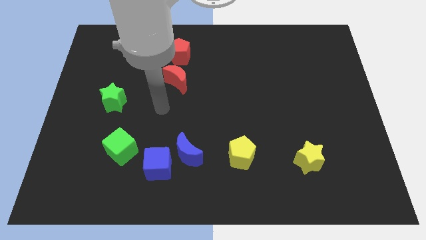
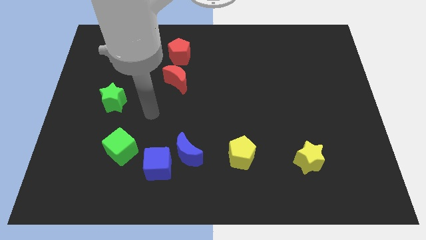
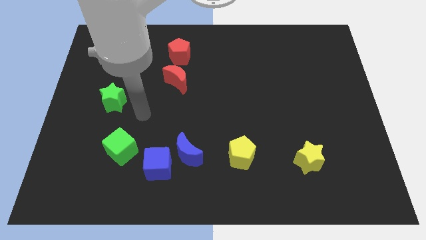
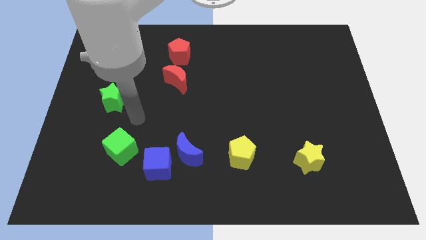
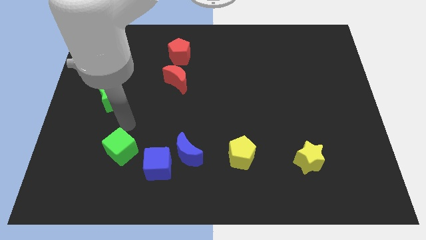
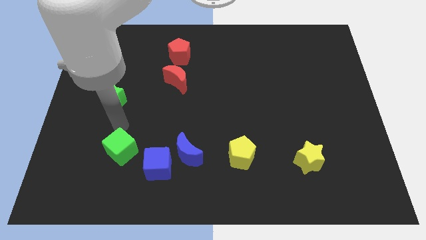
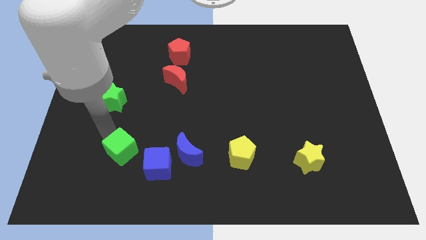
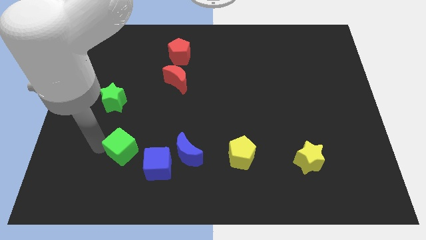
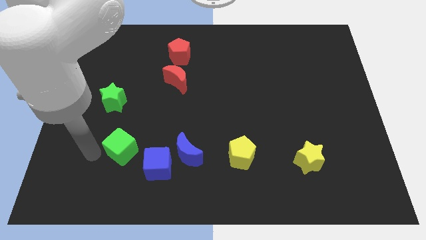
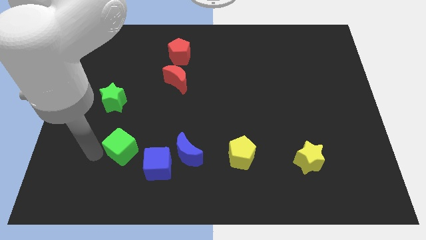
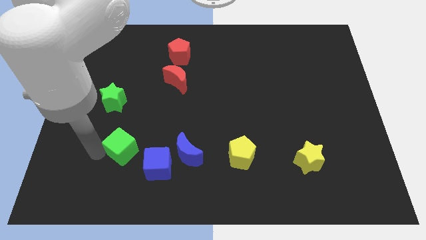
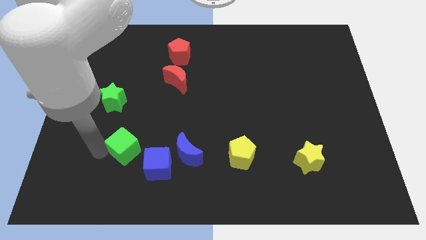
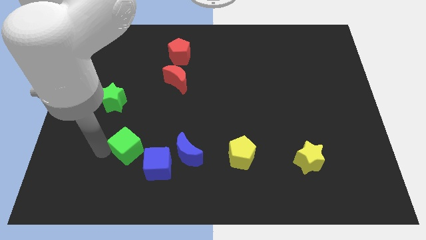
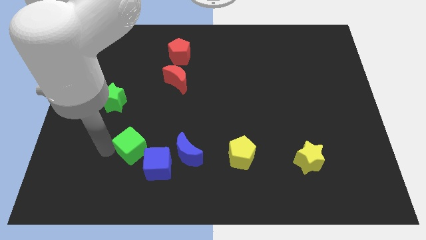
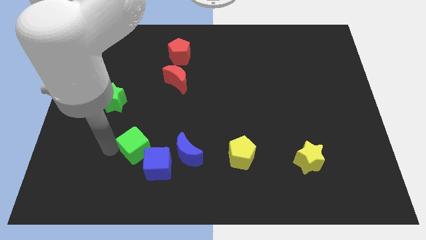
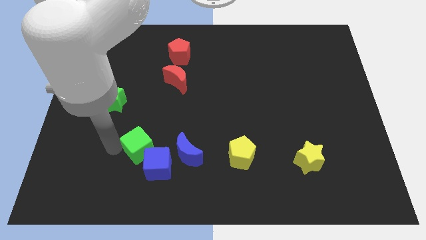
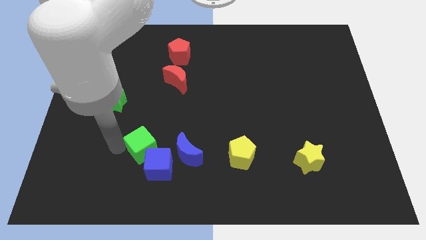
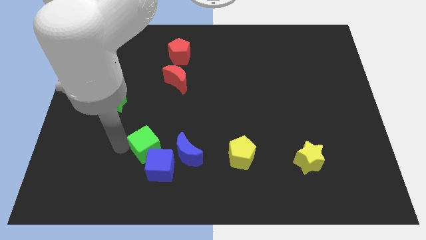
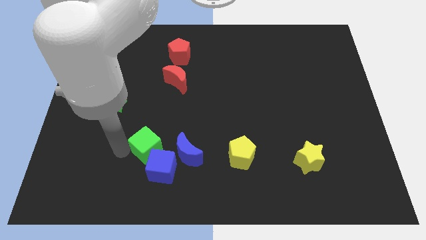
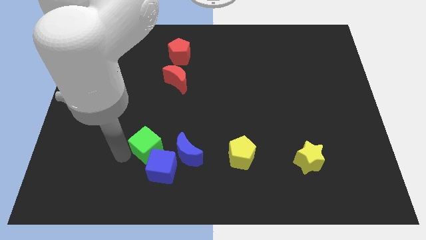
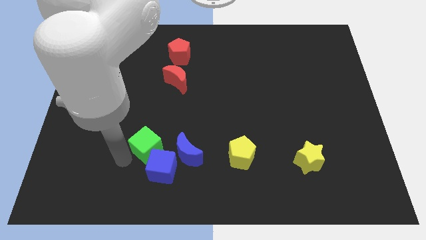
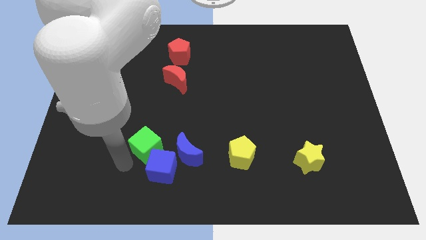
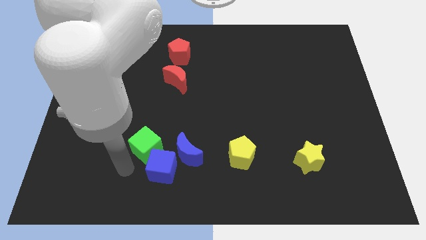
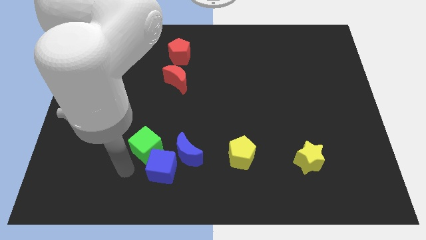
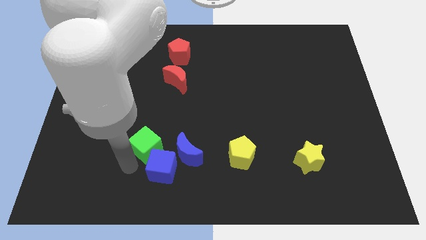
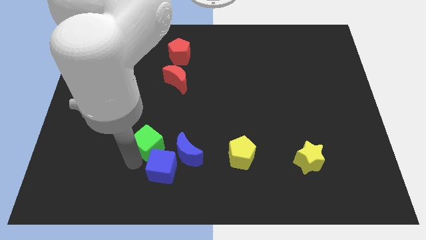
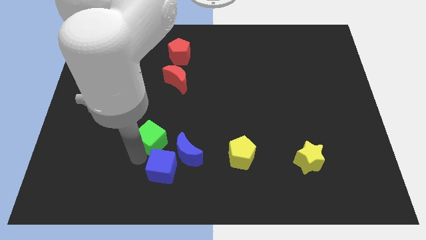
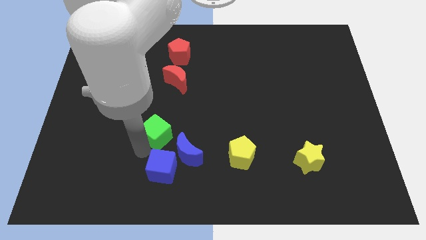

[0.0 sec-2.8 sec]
slightly move the green cube to the right

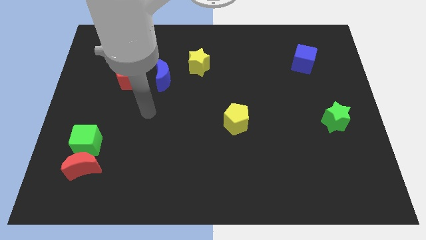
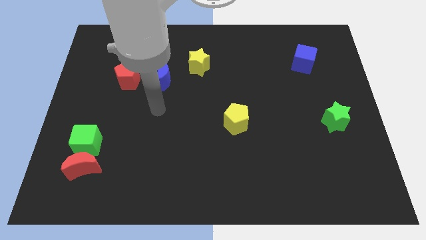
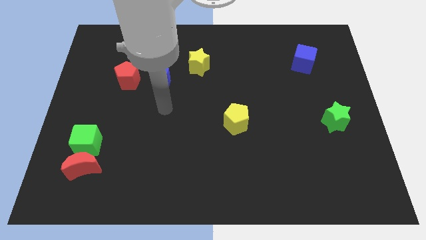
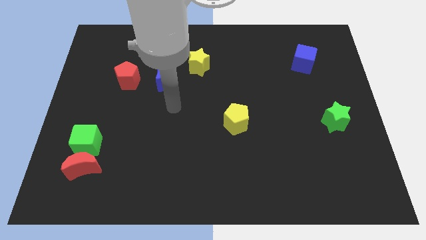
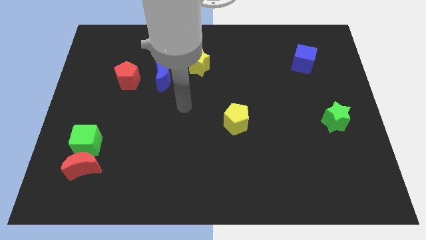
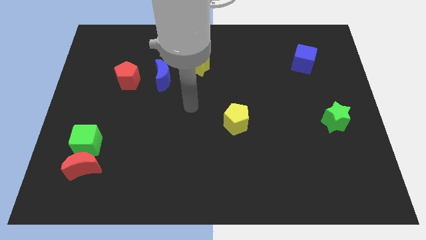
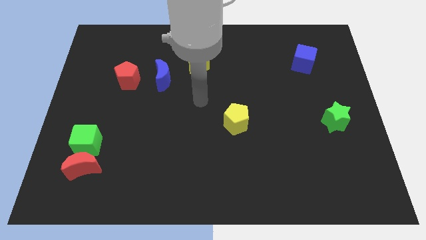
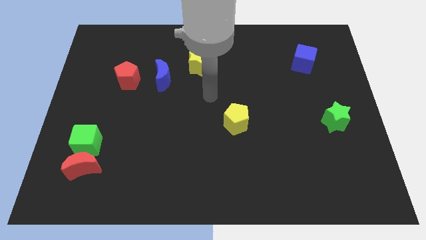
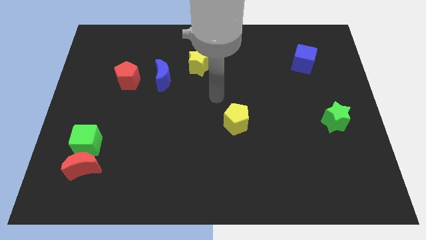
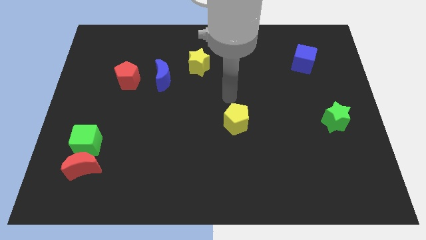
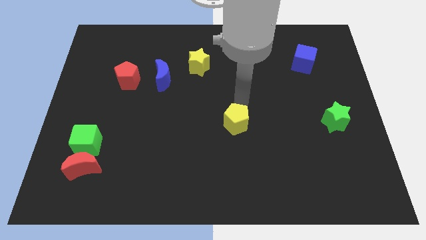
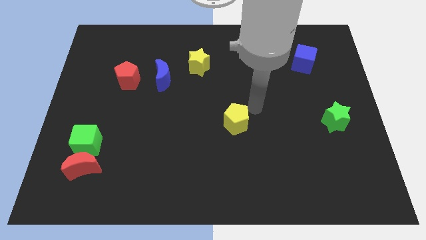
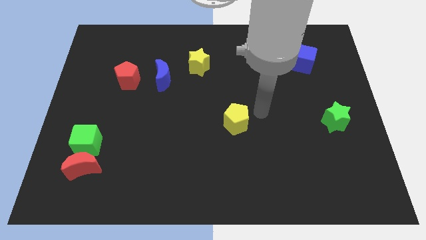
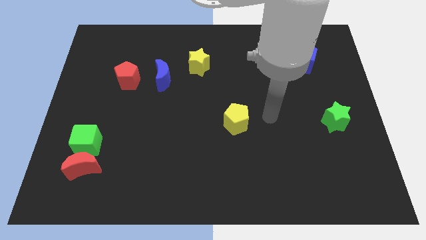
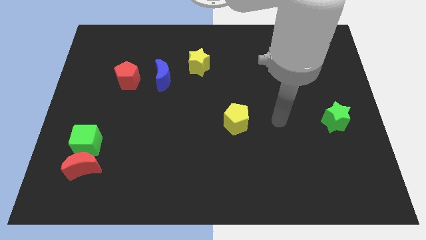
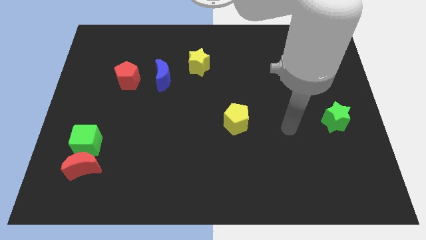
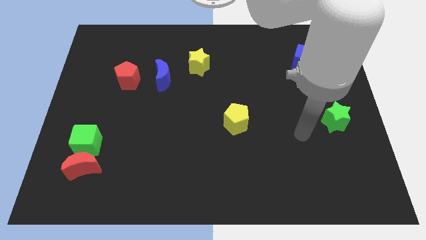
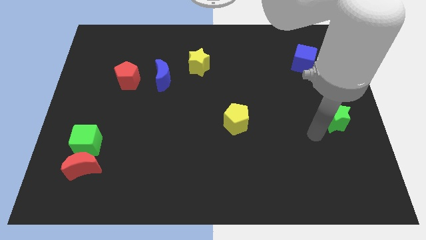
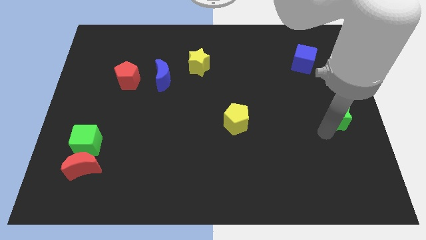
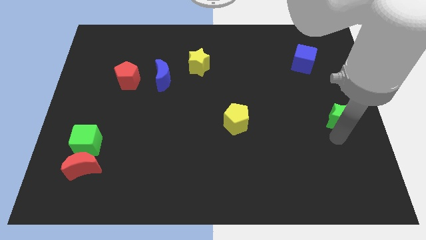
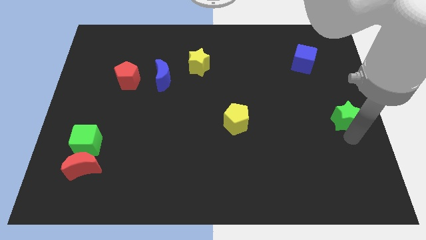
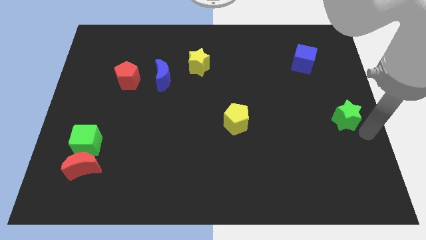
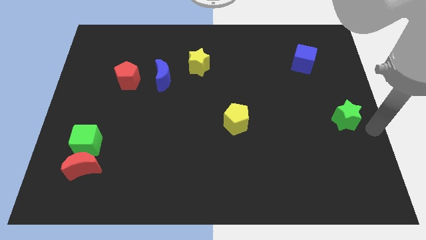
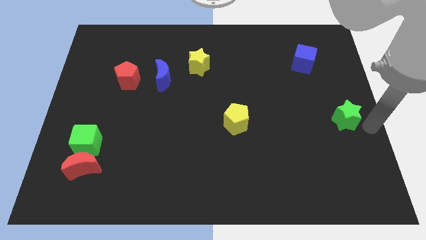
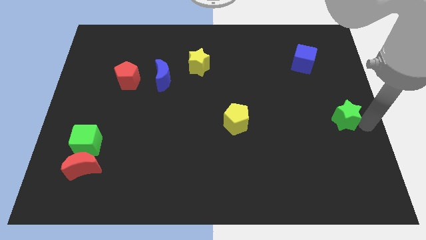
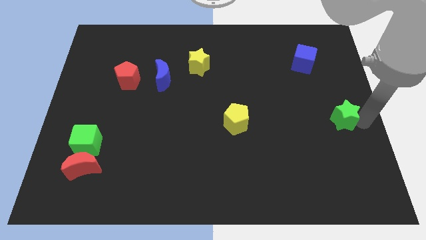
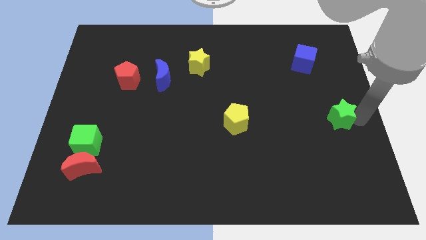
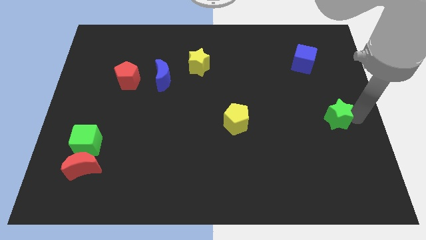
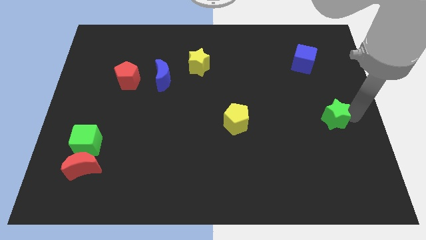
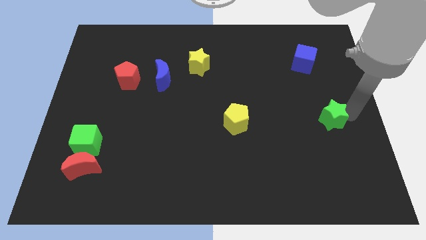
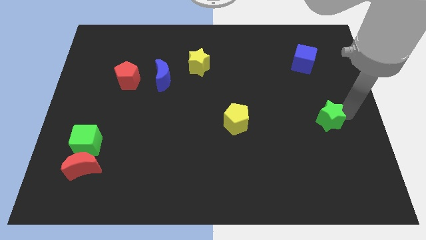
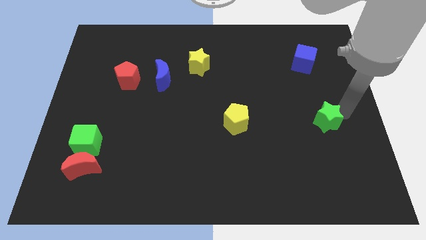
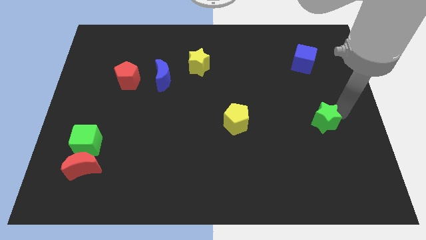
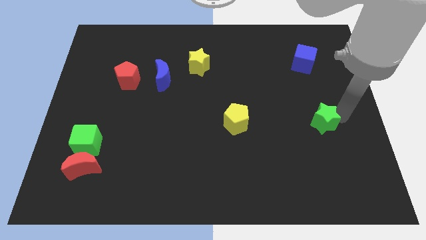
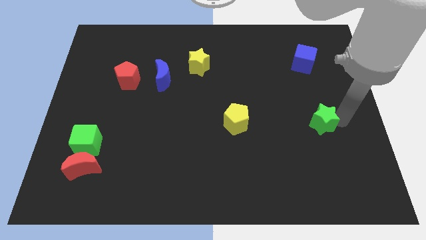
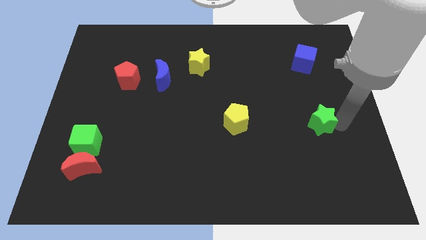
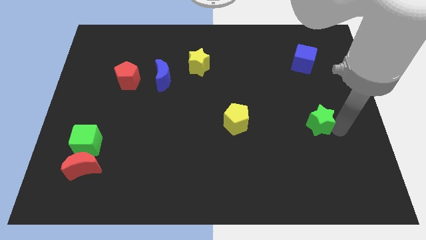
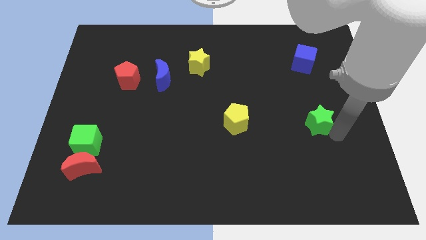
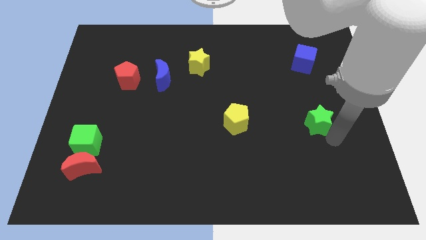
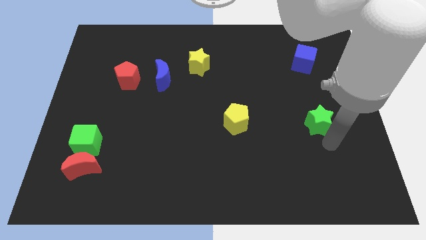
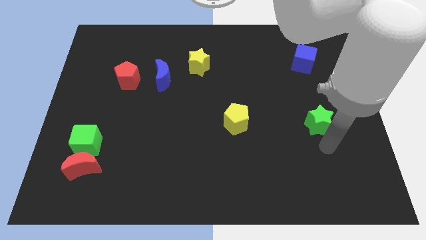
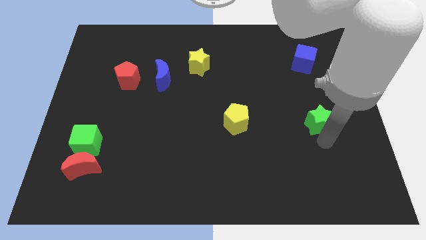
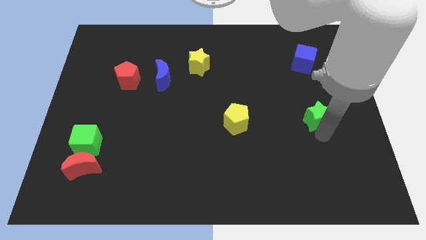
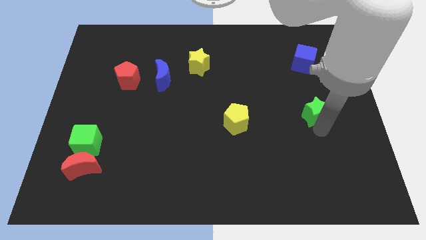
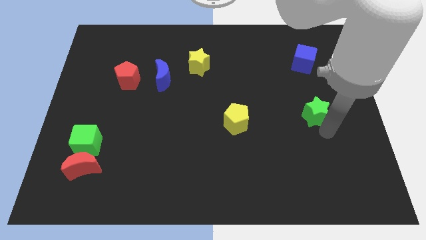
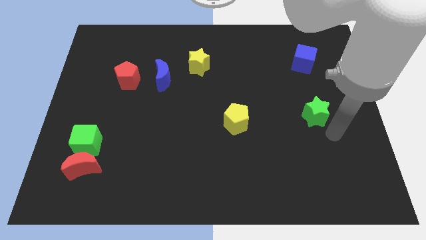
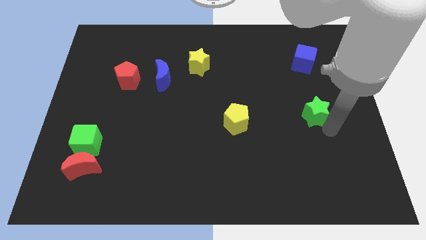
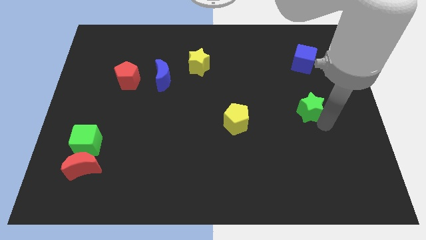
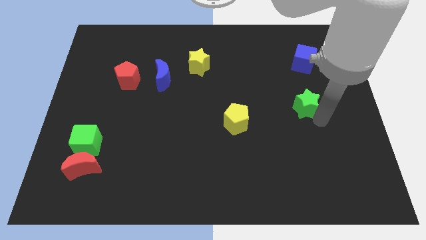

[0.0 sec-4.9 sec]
slide the green star up and then left a little bit

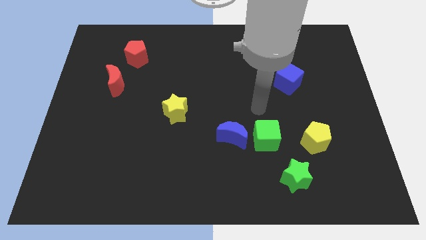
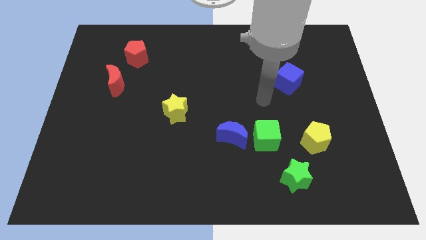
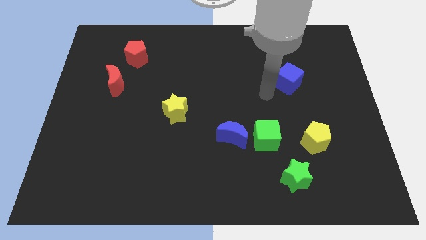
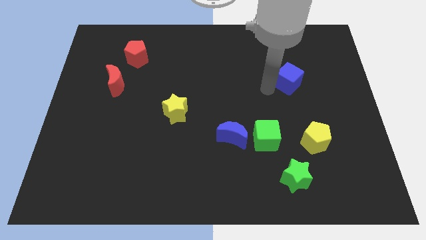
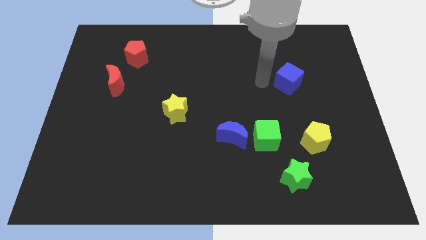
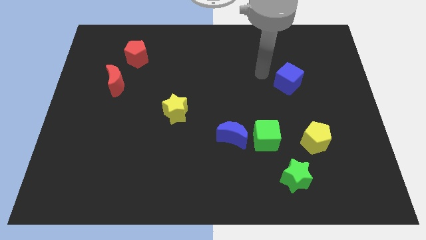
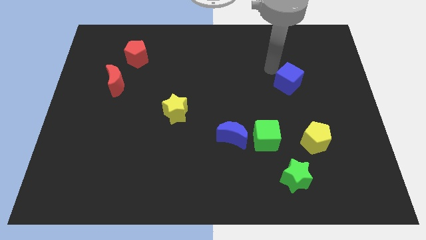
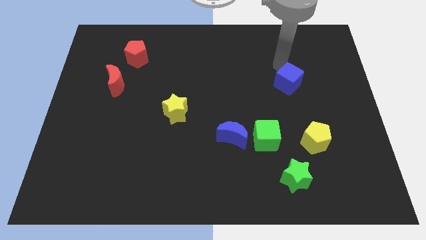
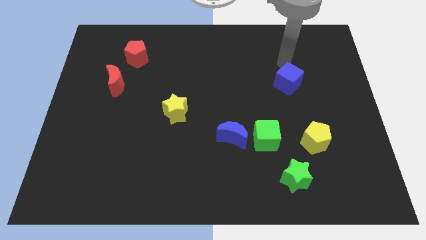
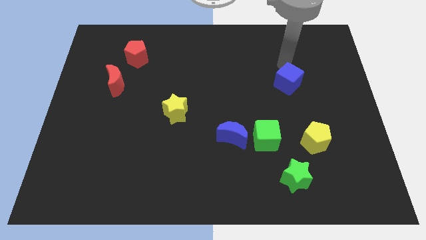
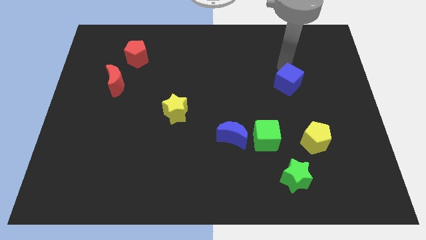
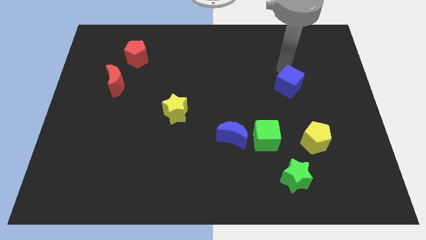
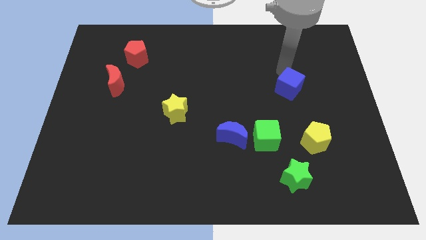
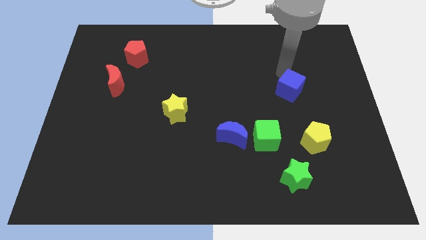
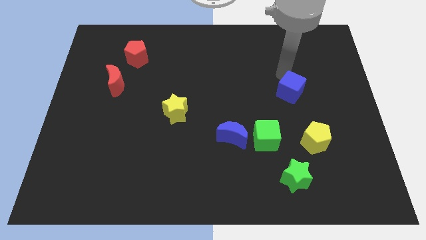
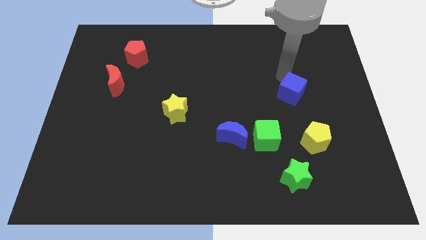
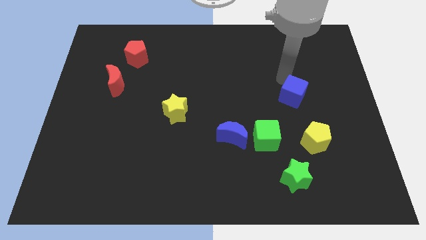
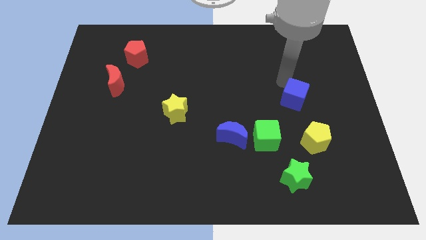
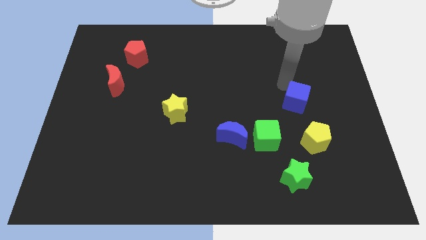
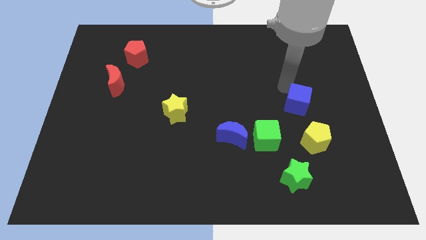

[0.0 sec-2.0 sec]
slightly slide the blue cube down
